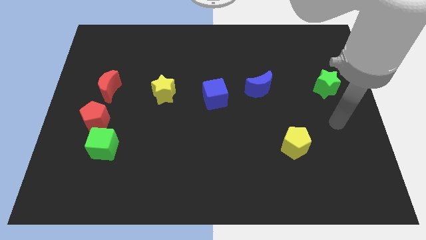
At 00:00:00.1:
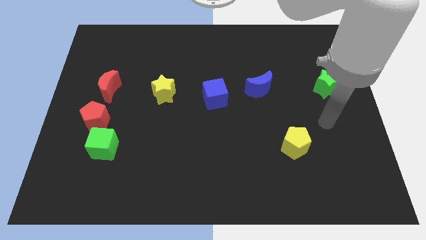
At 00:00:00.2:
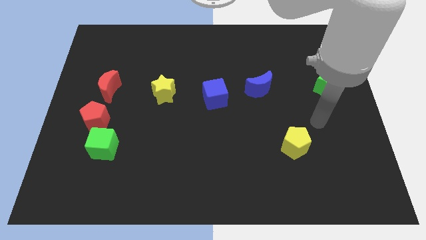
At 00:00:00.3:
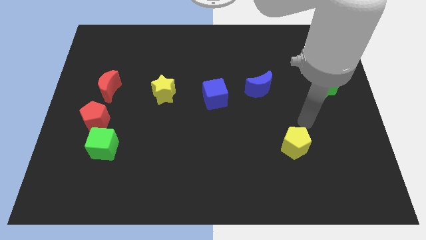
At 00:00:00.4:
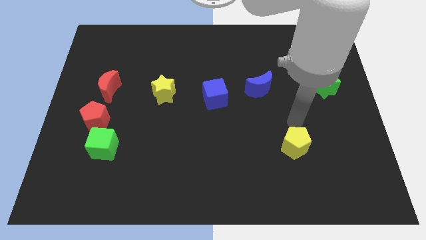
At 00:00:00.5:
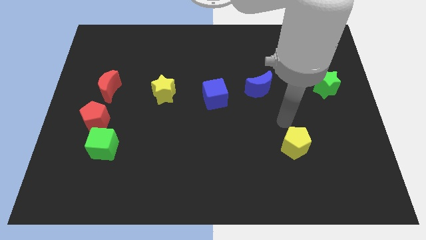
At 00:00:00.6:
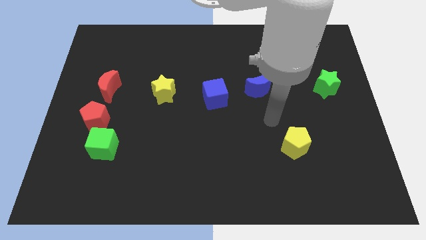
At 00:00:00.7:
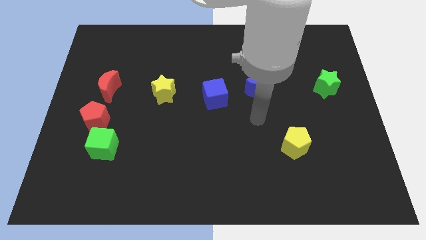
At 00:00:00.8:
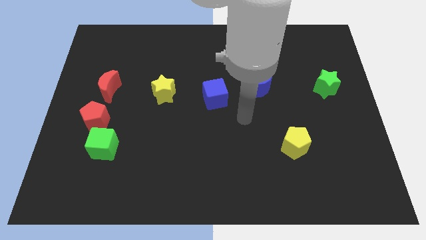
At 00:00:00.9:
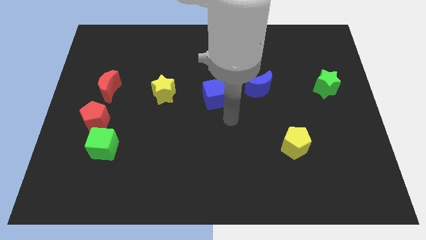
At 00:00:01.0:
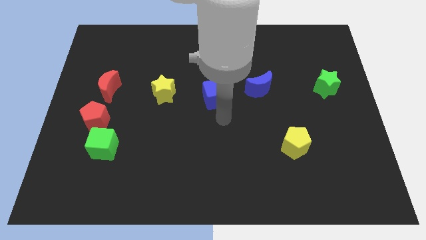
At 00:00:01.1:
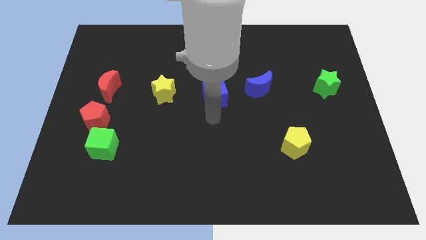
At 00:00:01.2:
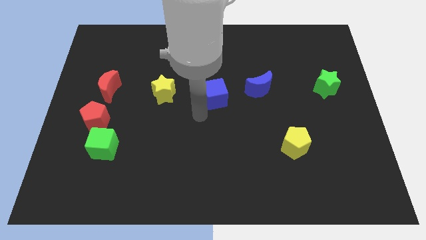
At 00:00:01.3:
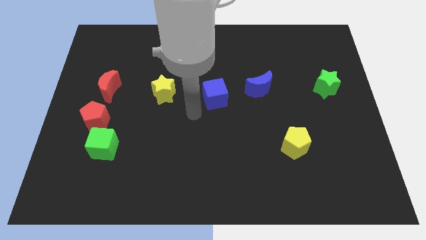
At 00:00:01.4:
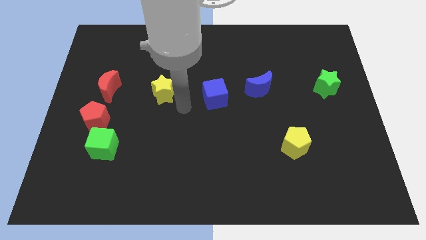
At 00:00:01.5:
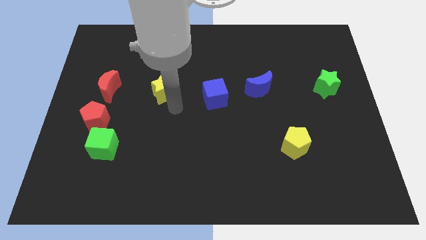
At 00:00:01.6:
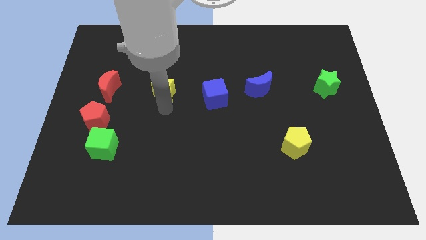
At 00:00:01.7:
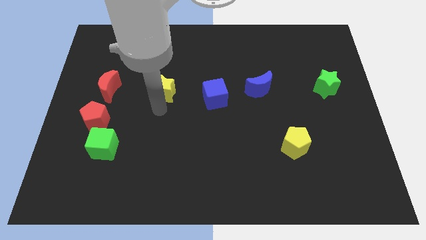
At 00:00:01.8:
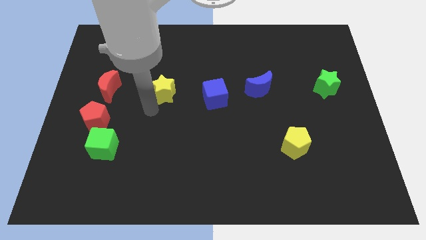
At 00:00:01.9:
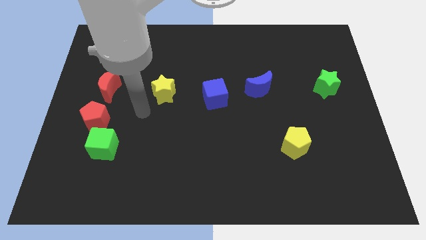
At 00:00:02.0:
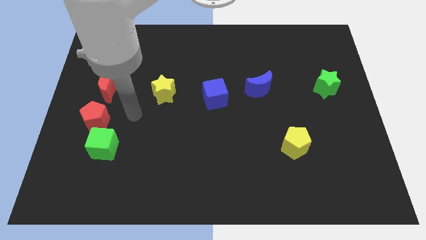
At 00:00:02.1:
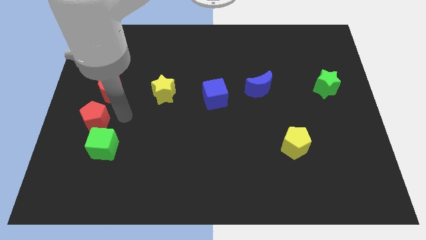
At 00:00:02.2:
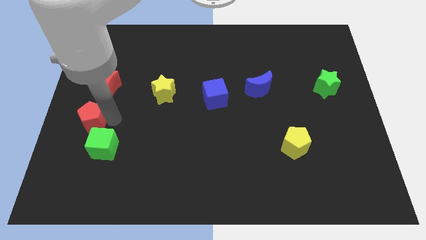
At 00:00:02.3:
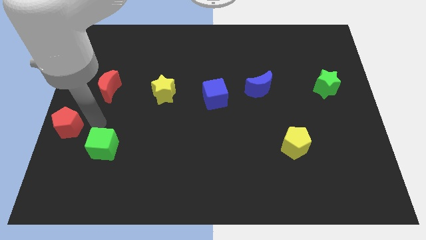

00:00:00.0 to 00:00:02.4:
pull the green cube apart from the red pentagon

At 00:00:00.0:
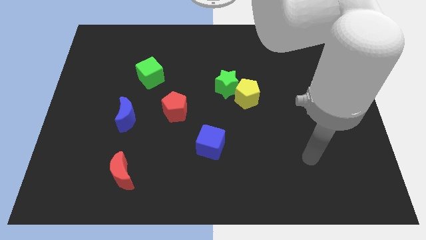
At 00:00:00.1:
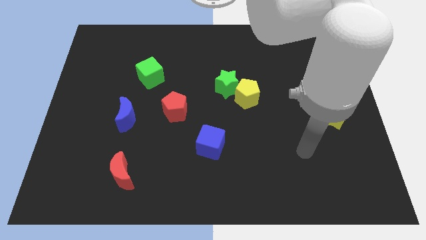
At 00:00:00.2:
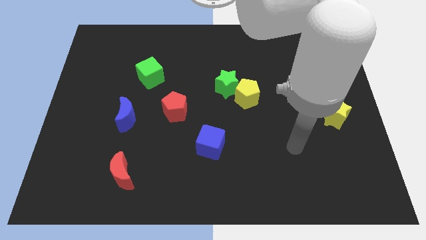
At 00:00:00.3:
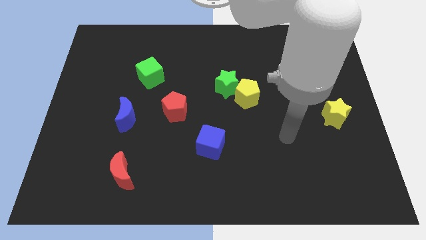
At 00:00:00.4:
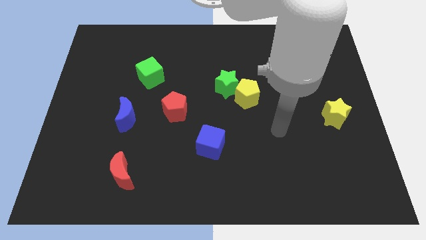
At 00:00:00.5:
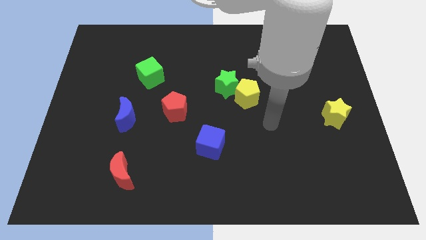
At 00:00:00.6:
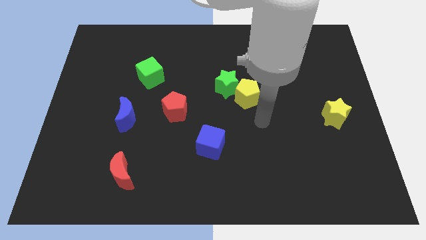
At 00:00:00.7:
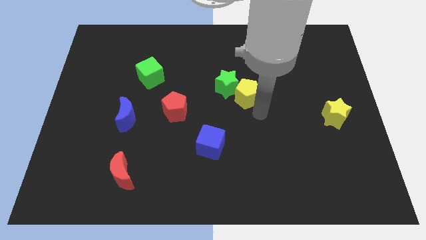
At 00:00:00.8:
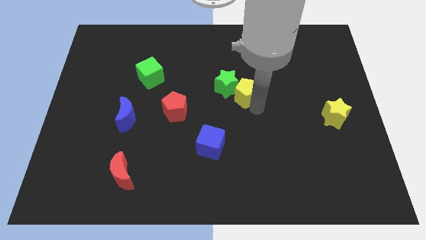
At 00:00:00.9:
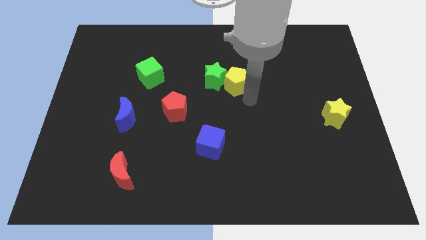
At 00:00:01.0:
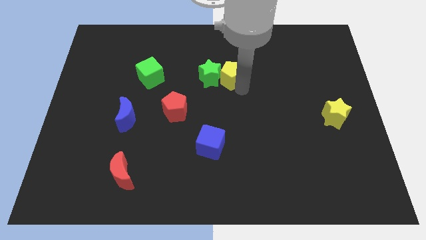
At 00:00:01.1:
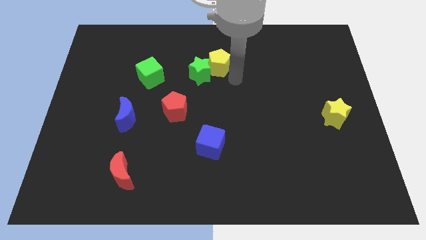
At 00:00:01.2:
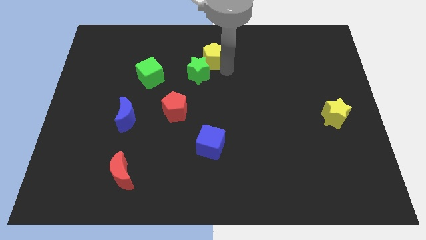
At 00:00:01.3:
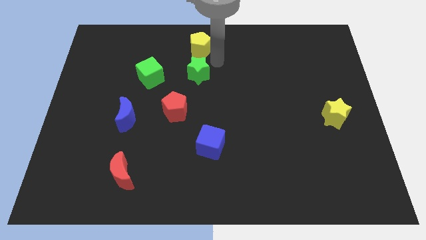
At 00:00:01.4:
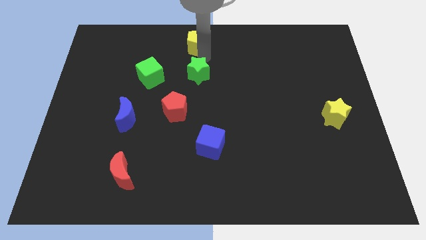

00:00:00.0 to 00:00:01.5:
pull the green star apart from the yellow pentagon

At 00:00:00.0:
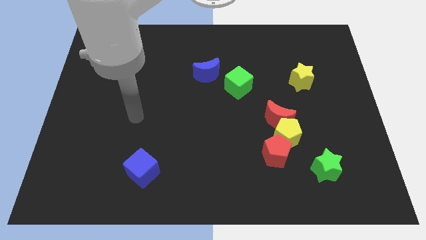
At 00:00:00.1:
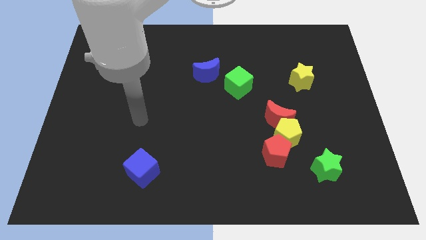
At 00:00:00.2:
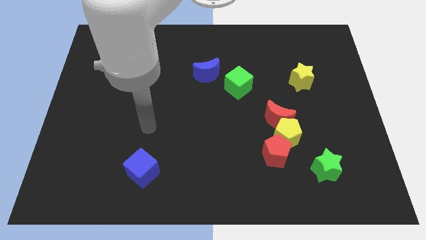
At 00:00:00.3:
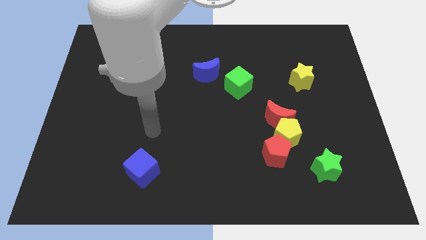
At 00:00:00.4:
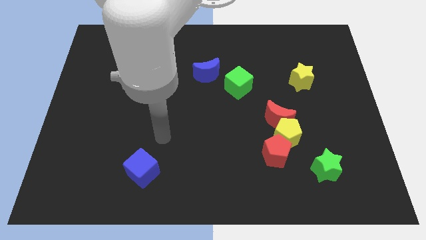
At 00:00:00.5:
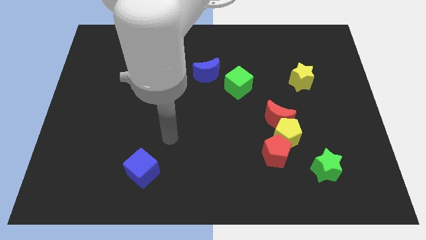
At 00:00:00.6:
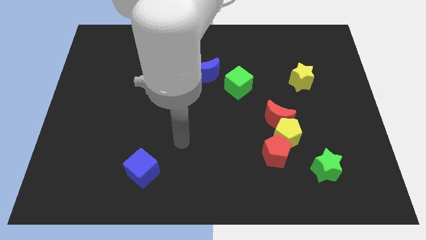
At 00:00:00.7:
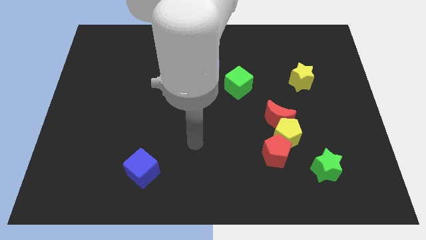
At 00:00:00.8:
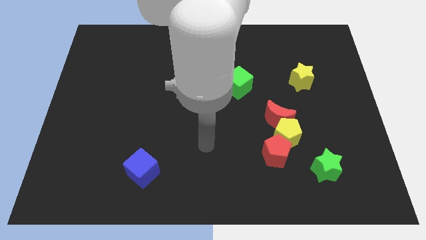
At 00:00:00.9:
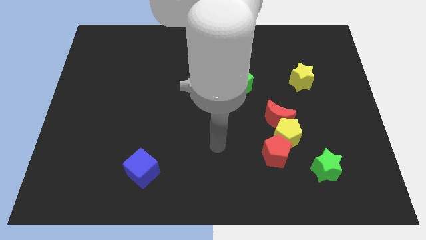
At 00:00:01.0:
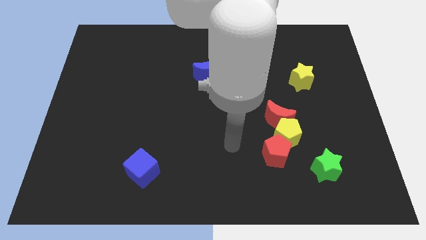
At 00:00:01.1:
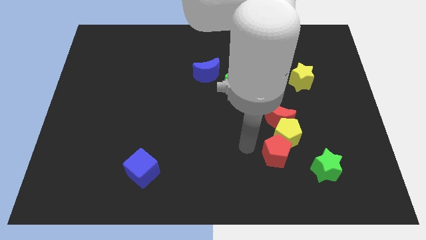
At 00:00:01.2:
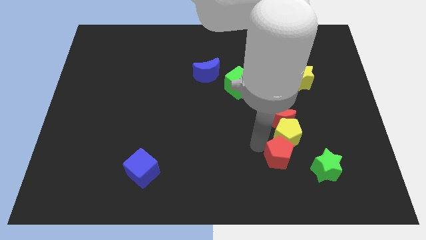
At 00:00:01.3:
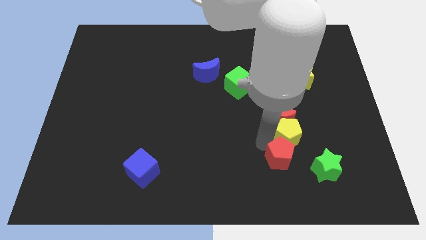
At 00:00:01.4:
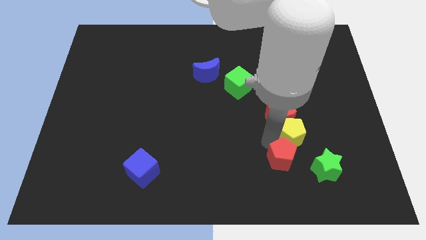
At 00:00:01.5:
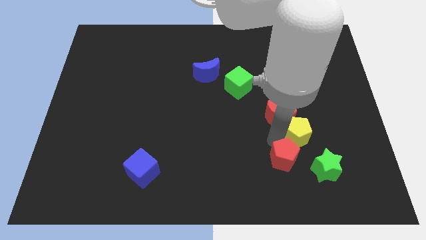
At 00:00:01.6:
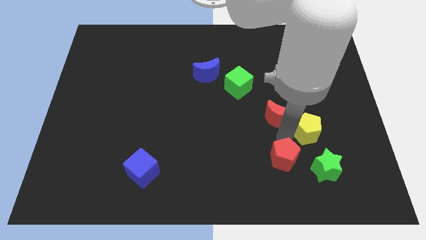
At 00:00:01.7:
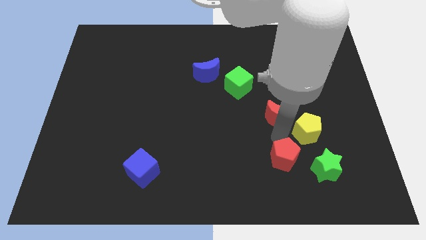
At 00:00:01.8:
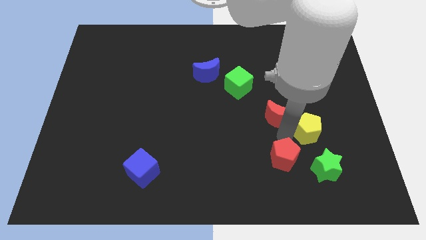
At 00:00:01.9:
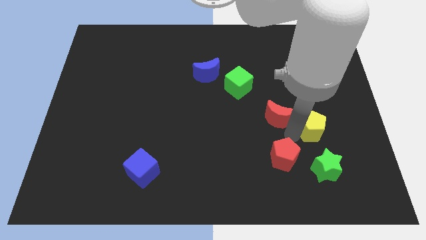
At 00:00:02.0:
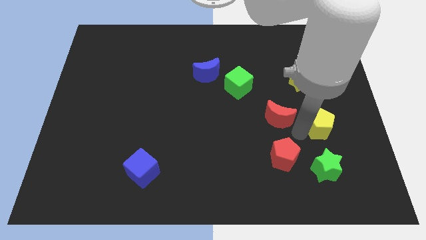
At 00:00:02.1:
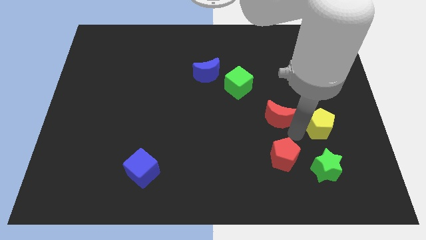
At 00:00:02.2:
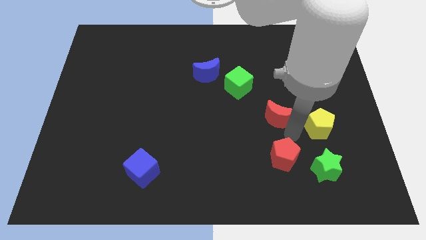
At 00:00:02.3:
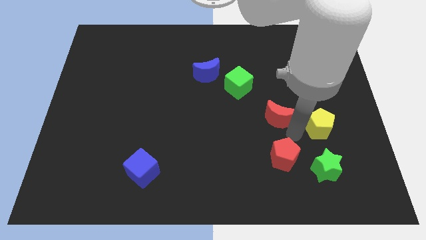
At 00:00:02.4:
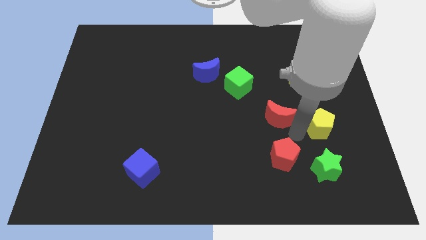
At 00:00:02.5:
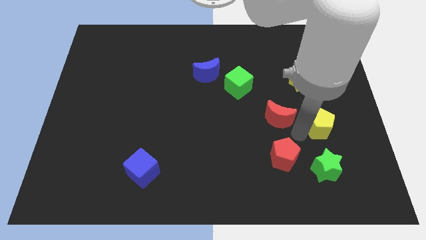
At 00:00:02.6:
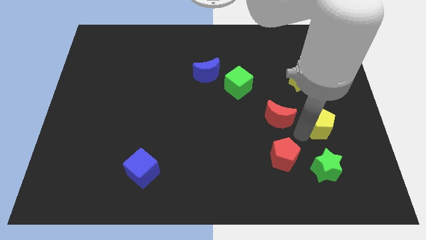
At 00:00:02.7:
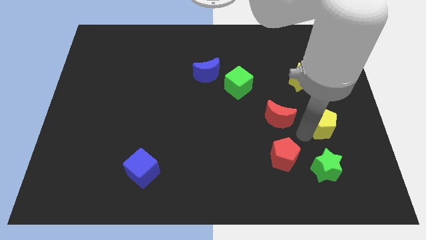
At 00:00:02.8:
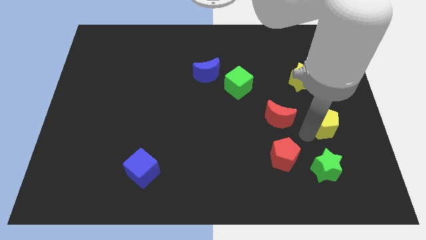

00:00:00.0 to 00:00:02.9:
move the yellow pentagon away from the red pentagon and red moon

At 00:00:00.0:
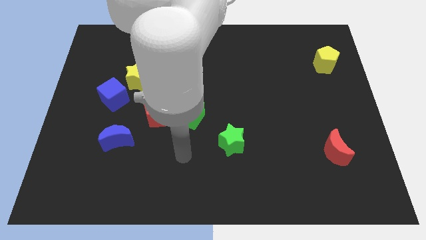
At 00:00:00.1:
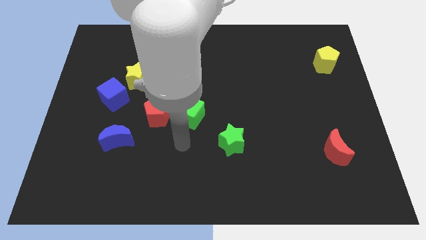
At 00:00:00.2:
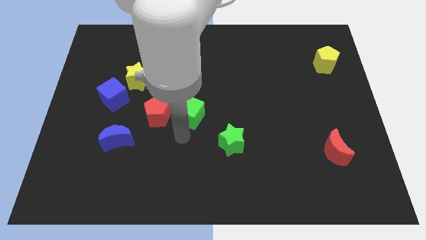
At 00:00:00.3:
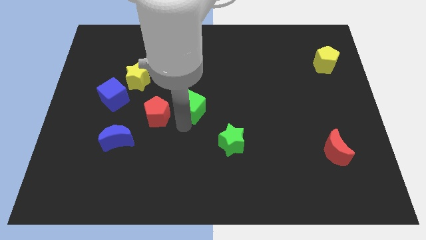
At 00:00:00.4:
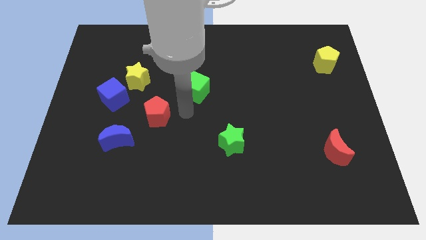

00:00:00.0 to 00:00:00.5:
move the red pentagon away from the green cube

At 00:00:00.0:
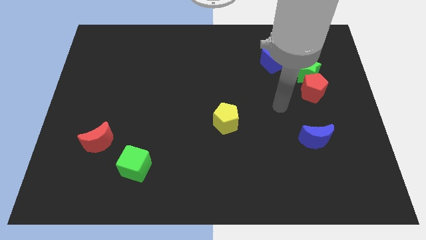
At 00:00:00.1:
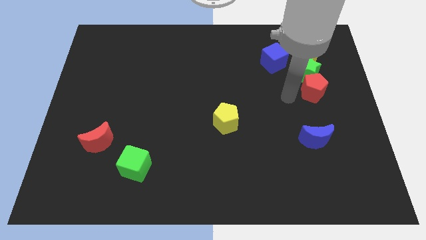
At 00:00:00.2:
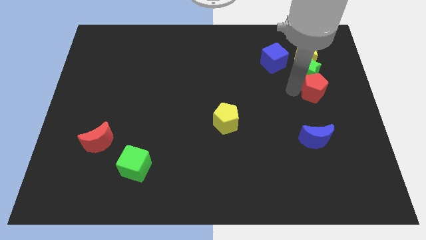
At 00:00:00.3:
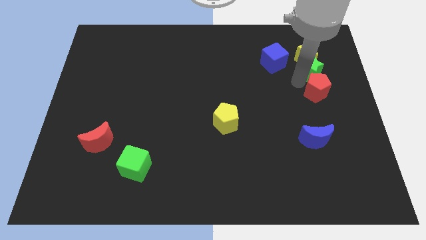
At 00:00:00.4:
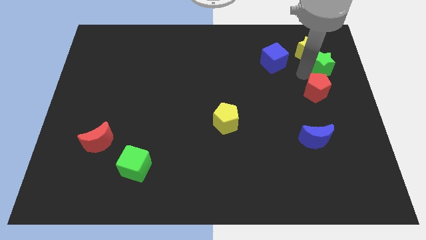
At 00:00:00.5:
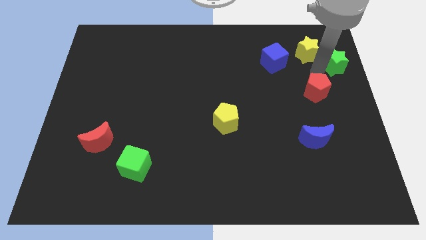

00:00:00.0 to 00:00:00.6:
move the red pentagon away from the green star

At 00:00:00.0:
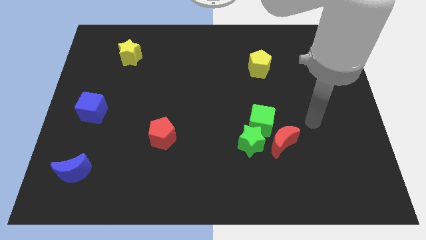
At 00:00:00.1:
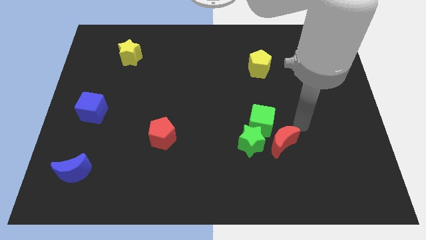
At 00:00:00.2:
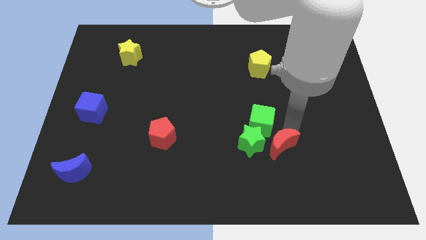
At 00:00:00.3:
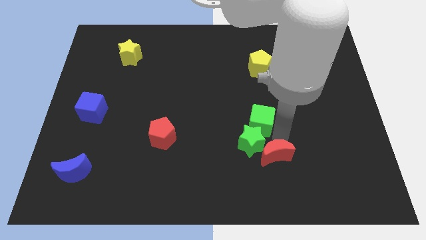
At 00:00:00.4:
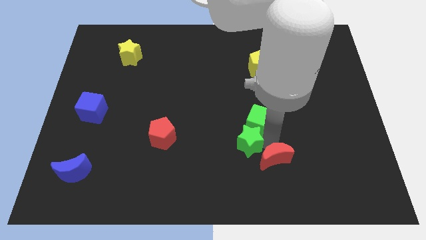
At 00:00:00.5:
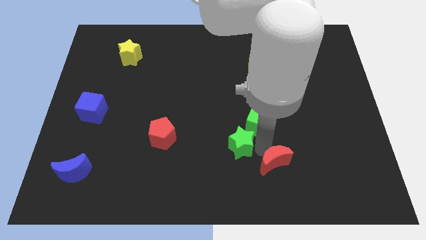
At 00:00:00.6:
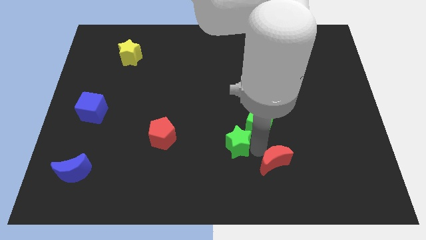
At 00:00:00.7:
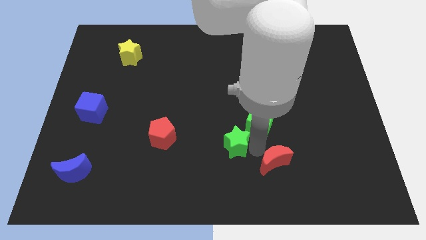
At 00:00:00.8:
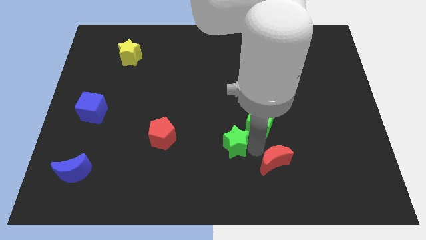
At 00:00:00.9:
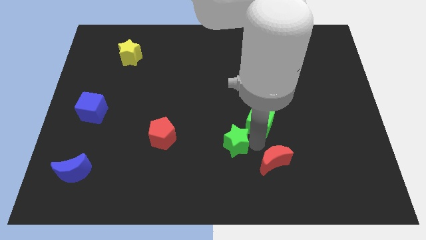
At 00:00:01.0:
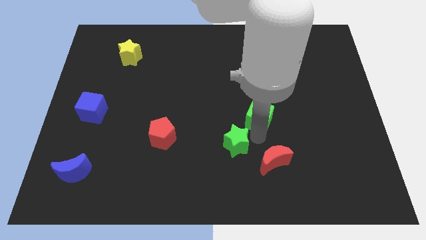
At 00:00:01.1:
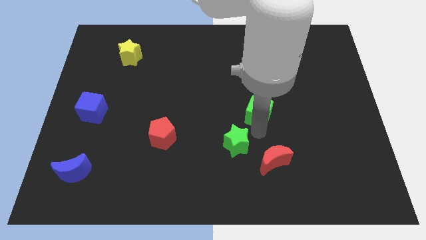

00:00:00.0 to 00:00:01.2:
move the green cube away from the green star and red moon

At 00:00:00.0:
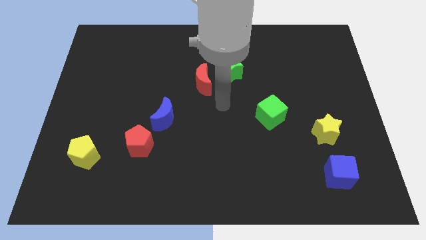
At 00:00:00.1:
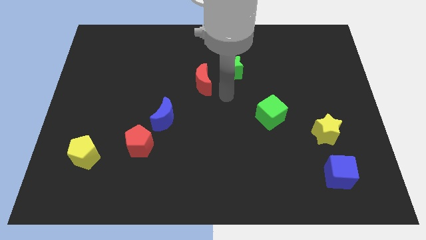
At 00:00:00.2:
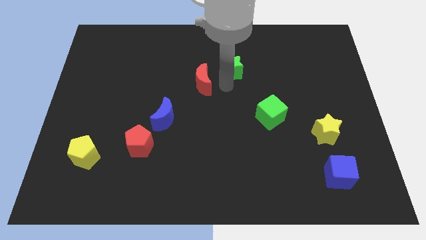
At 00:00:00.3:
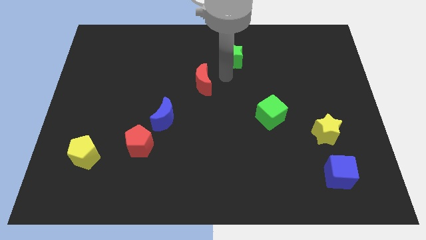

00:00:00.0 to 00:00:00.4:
separate the red moon from the green star
